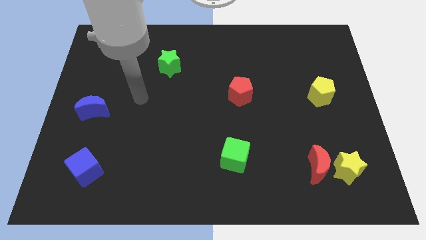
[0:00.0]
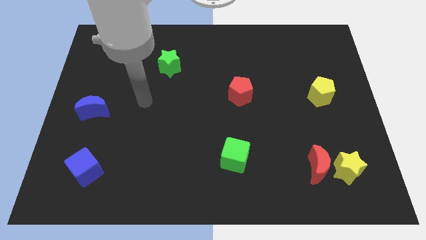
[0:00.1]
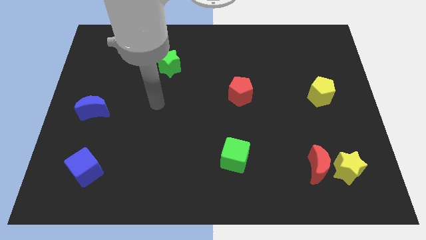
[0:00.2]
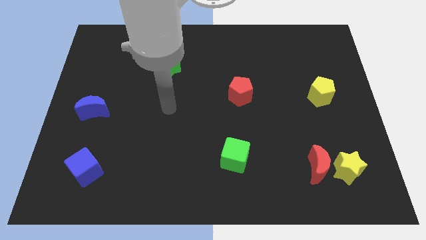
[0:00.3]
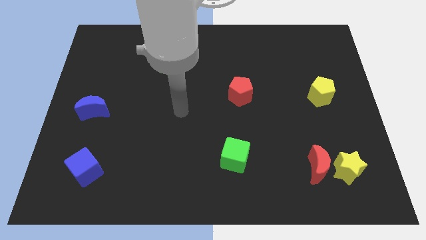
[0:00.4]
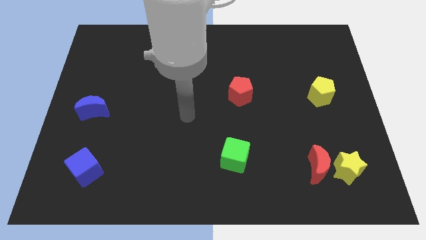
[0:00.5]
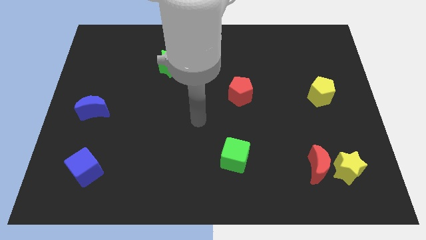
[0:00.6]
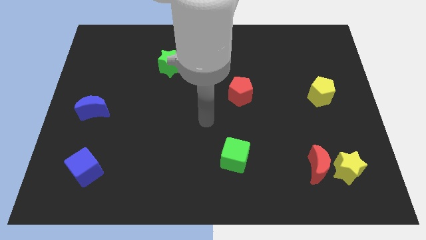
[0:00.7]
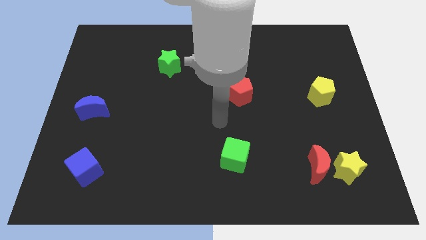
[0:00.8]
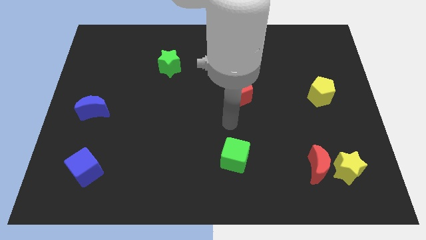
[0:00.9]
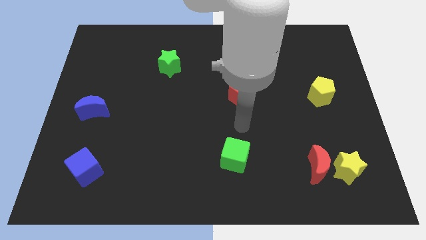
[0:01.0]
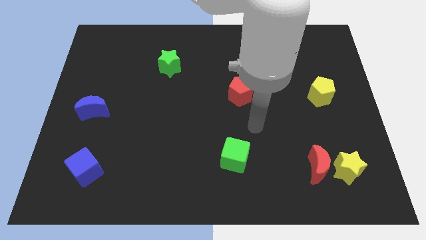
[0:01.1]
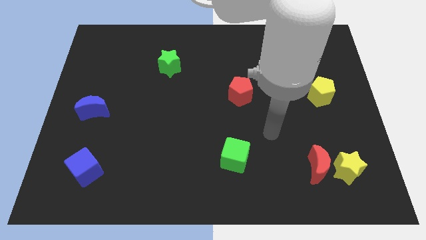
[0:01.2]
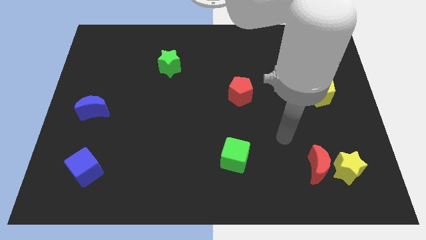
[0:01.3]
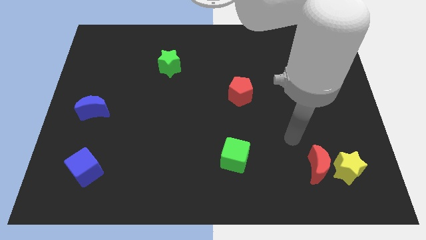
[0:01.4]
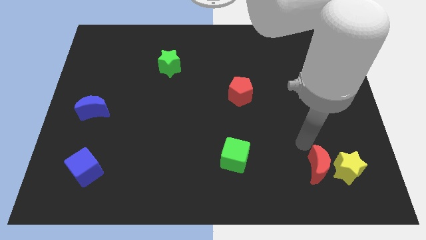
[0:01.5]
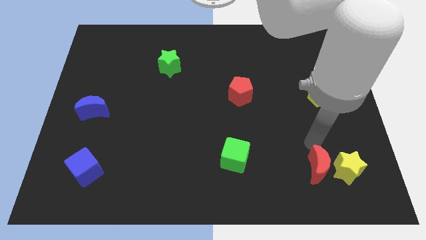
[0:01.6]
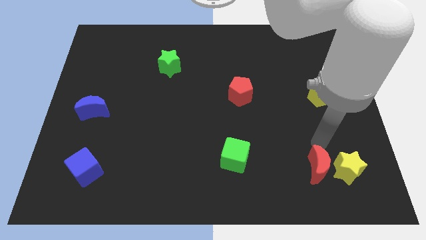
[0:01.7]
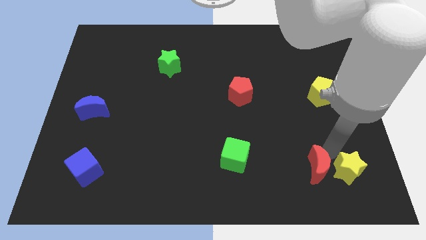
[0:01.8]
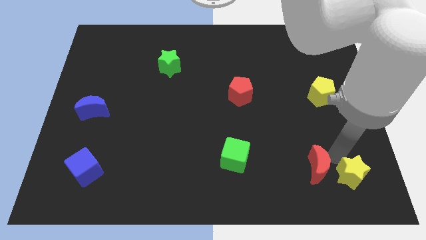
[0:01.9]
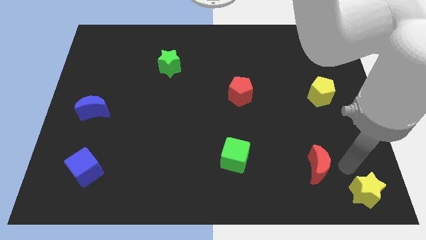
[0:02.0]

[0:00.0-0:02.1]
pull the red moon apart from the yellow star

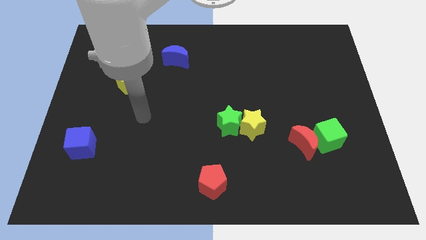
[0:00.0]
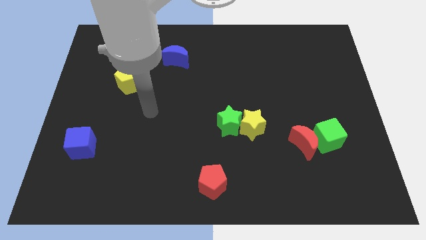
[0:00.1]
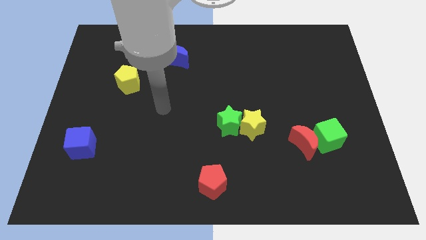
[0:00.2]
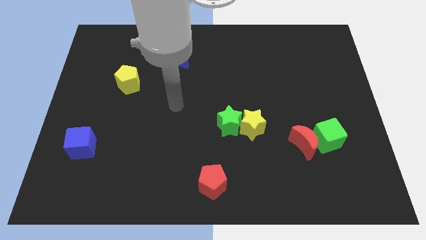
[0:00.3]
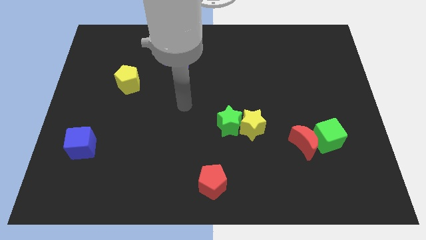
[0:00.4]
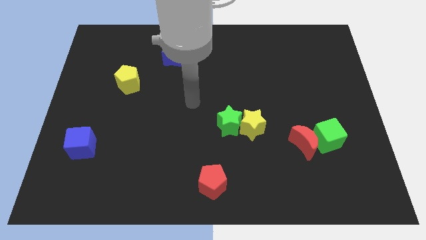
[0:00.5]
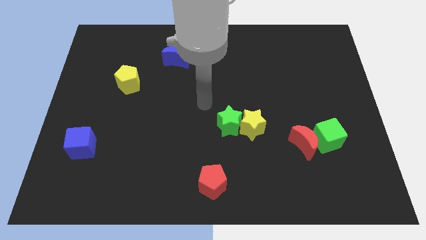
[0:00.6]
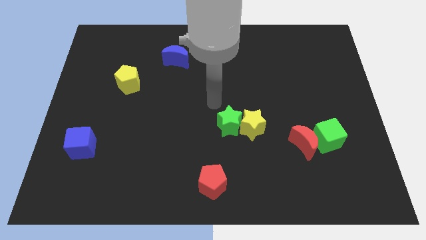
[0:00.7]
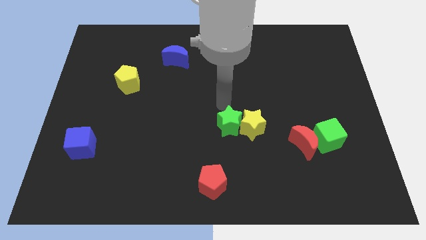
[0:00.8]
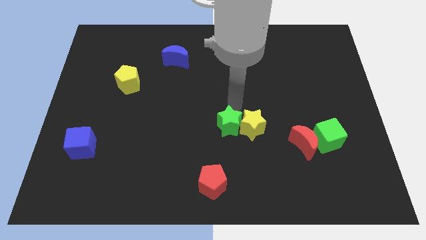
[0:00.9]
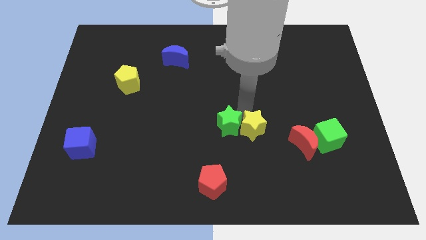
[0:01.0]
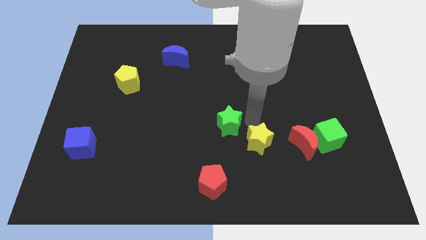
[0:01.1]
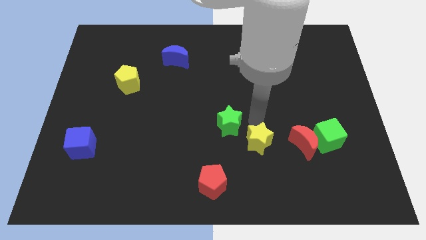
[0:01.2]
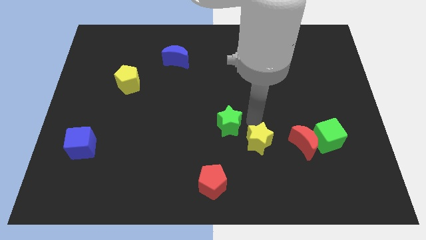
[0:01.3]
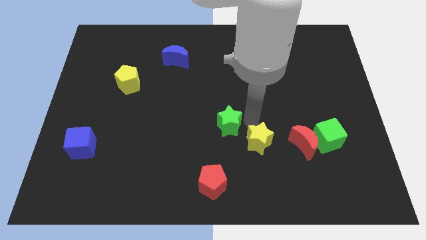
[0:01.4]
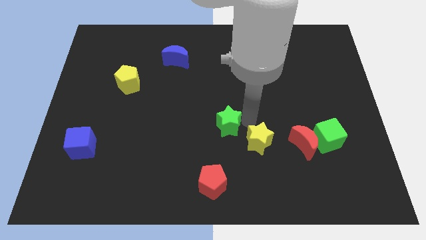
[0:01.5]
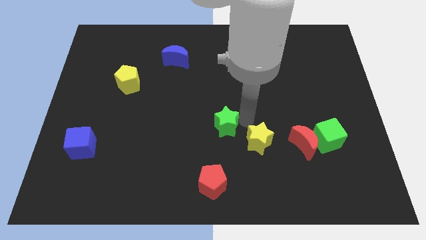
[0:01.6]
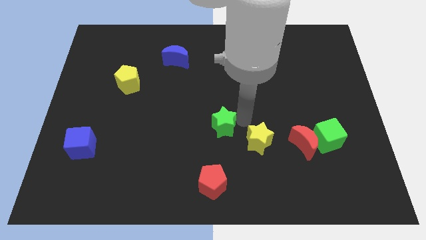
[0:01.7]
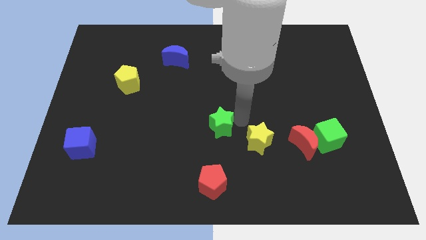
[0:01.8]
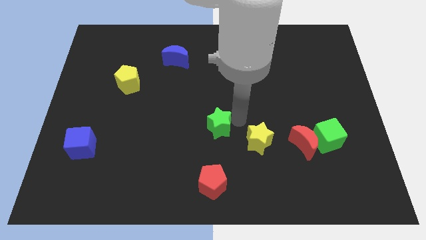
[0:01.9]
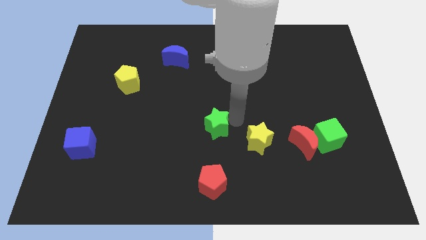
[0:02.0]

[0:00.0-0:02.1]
separate the green star from the yellow star

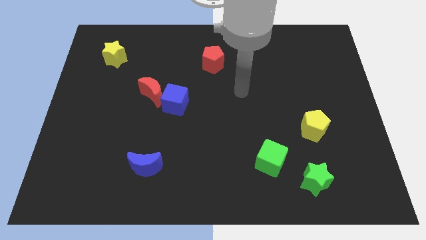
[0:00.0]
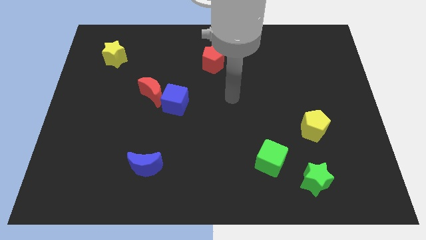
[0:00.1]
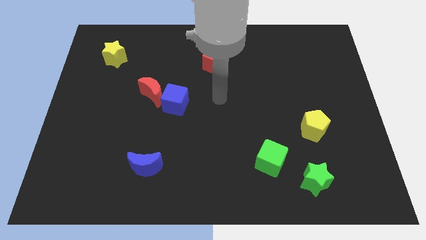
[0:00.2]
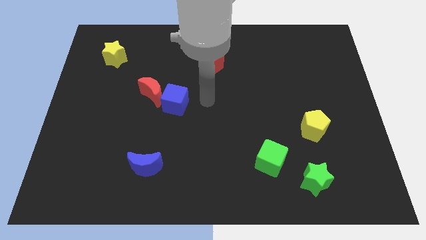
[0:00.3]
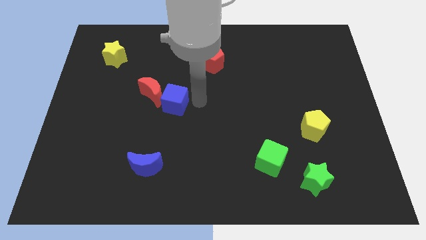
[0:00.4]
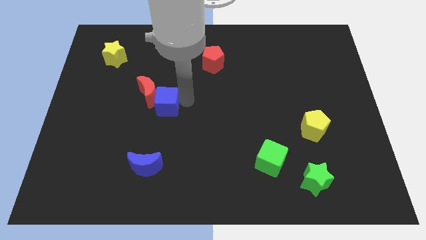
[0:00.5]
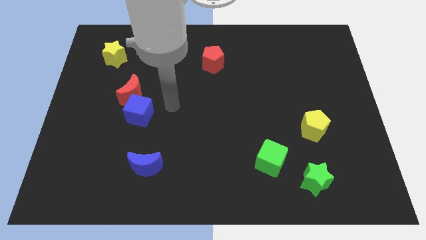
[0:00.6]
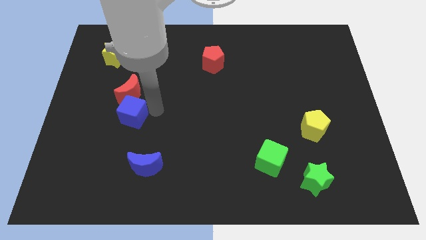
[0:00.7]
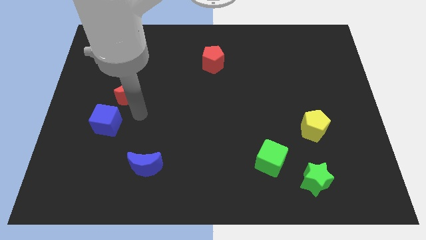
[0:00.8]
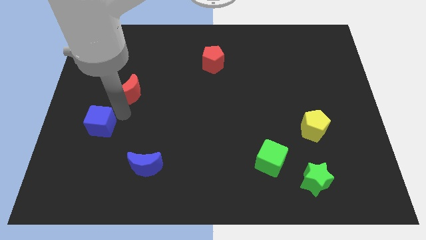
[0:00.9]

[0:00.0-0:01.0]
separate the red moon from the blue cube

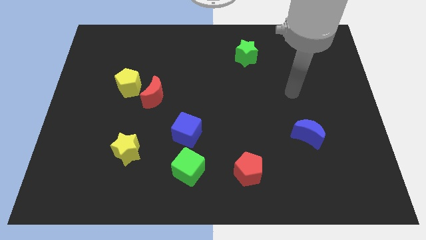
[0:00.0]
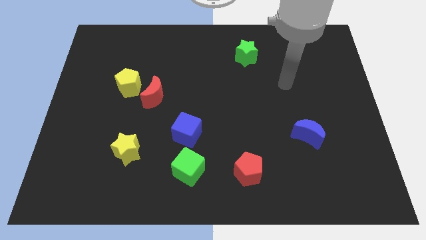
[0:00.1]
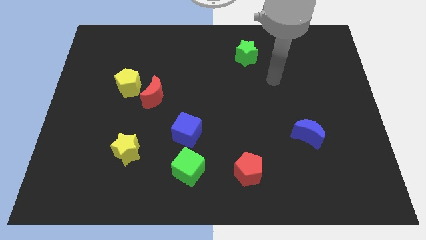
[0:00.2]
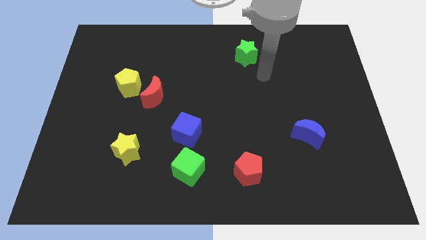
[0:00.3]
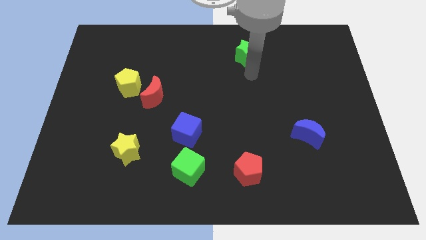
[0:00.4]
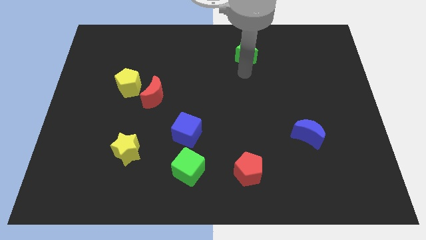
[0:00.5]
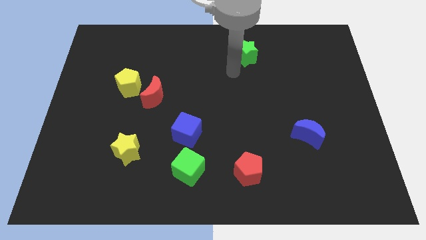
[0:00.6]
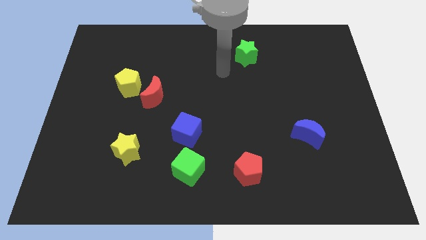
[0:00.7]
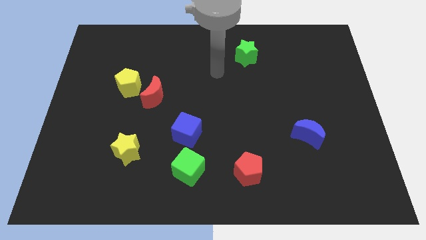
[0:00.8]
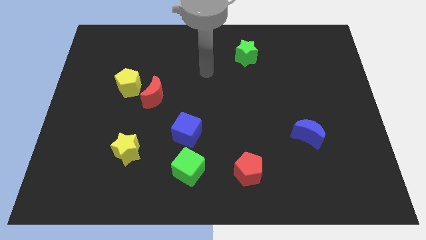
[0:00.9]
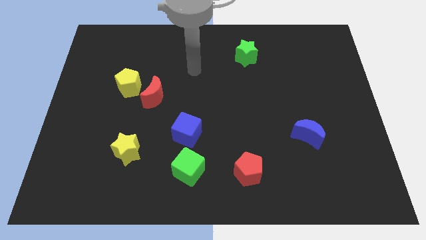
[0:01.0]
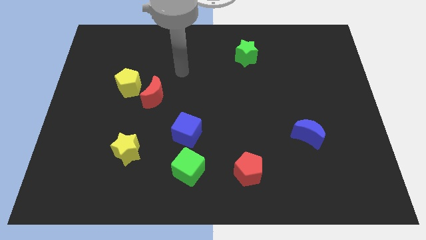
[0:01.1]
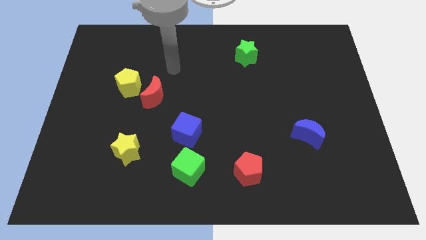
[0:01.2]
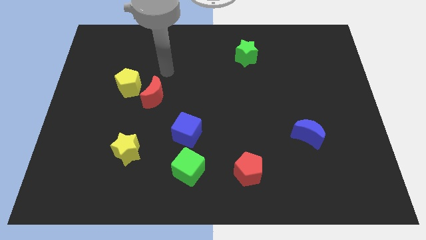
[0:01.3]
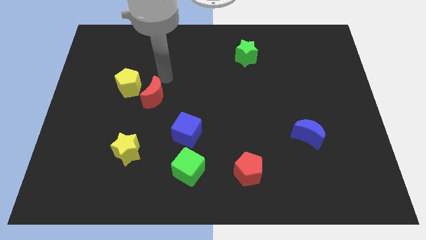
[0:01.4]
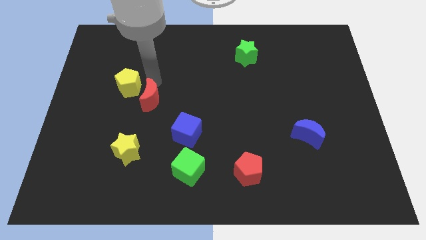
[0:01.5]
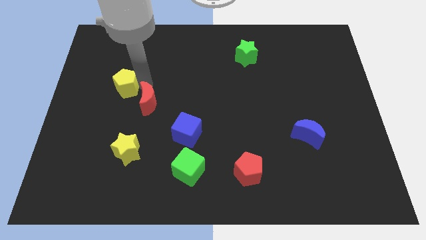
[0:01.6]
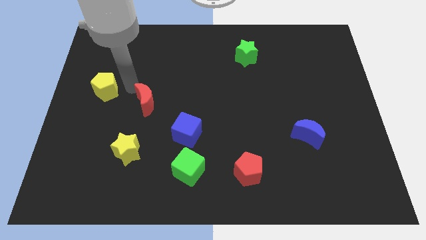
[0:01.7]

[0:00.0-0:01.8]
move the red moon away from the yellow pentagon

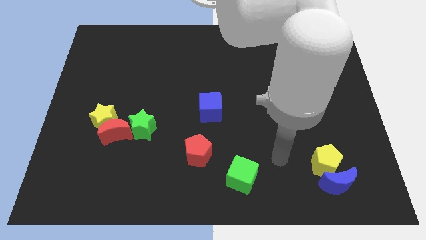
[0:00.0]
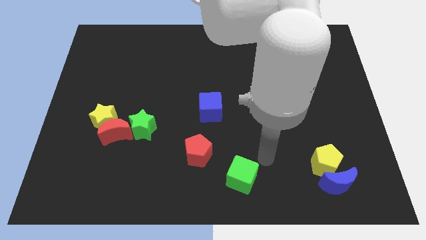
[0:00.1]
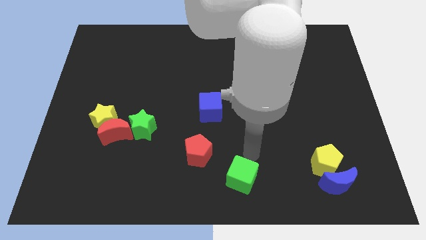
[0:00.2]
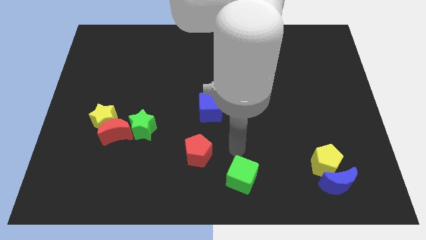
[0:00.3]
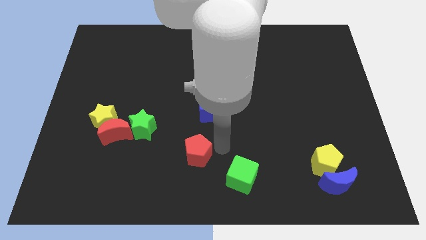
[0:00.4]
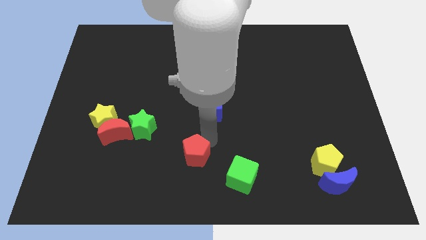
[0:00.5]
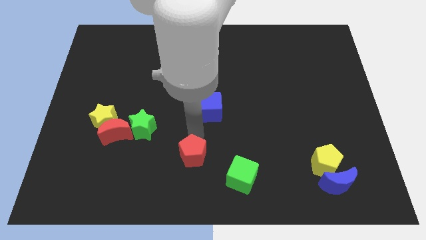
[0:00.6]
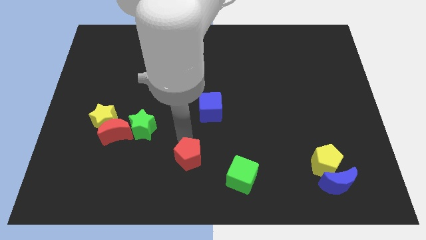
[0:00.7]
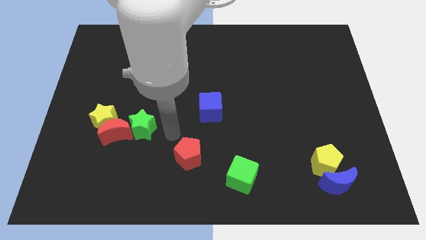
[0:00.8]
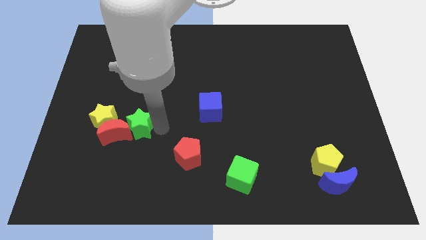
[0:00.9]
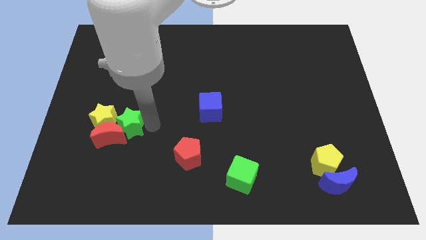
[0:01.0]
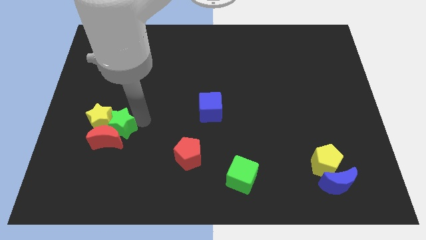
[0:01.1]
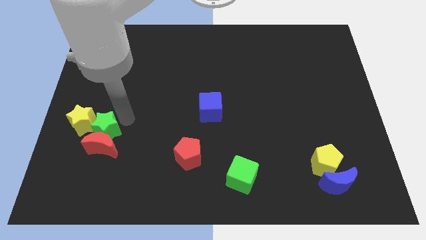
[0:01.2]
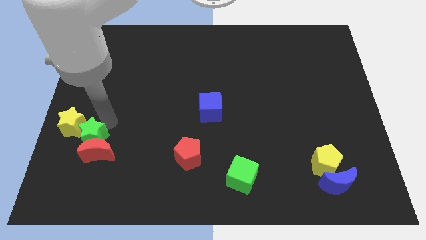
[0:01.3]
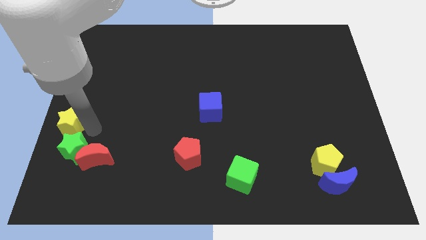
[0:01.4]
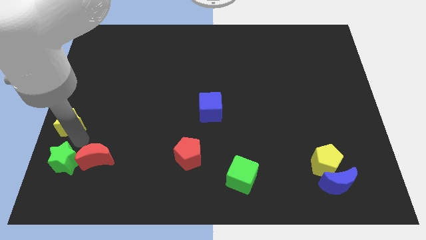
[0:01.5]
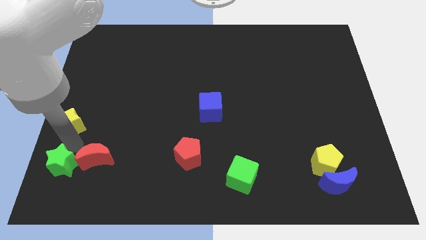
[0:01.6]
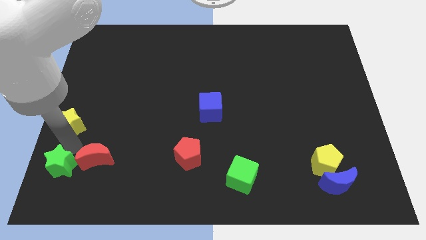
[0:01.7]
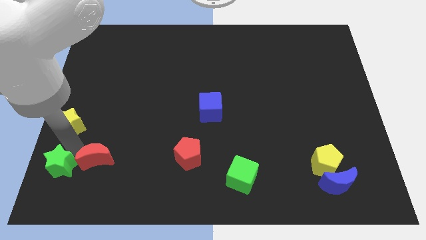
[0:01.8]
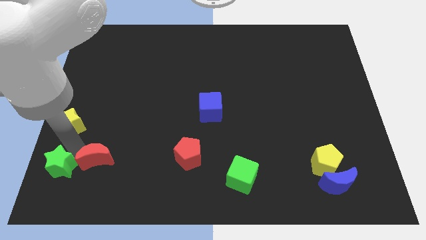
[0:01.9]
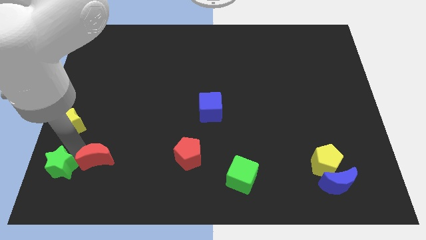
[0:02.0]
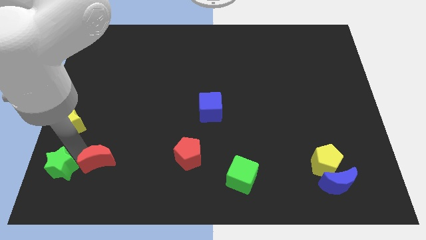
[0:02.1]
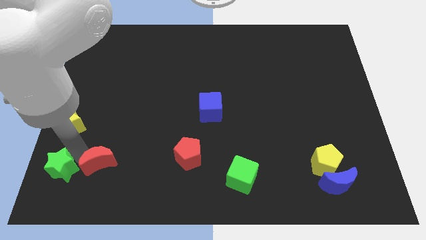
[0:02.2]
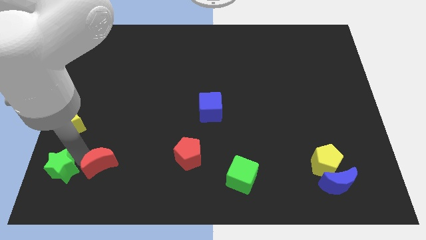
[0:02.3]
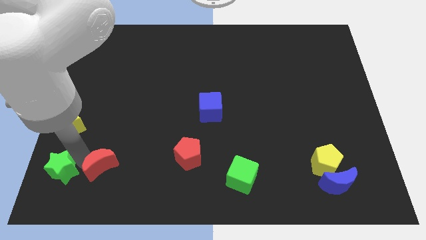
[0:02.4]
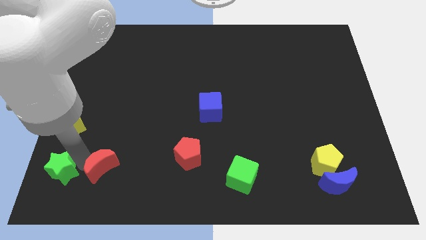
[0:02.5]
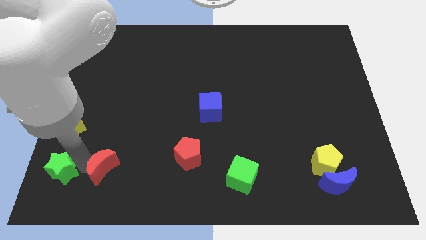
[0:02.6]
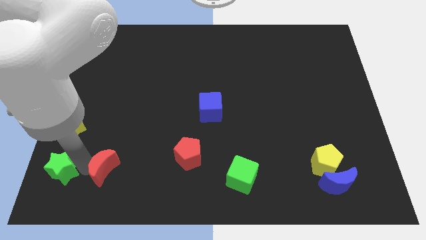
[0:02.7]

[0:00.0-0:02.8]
pull the red moon apart from the yellow star and green star
